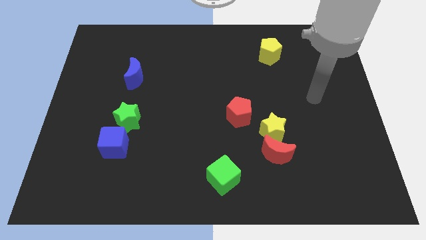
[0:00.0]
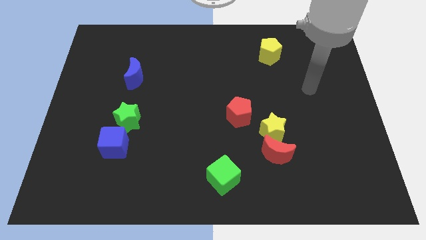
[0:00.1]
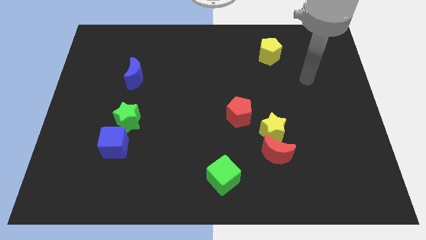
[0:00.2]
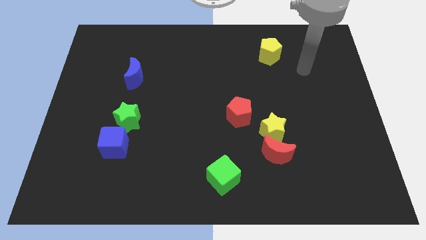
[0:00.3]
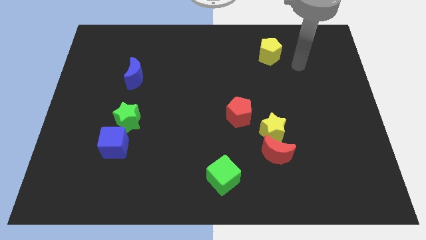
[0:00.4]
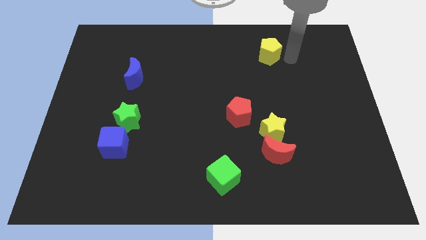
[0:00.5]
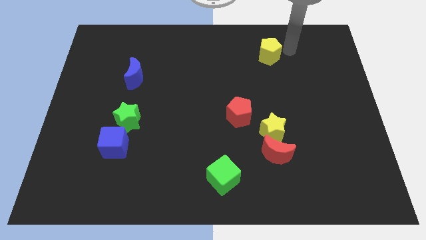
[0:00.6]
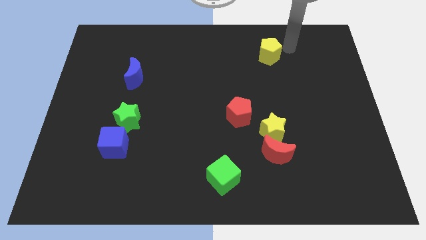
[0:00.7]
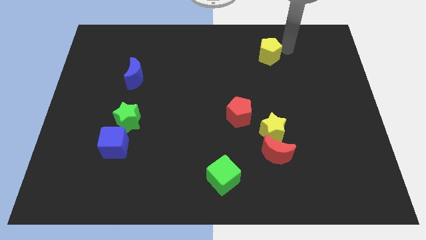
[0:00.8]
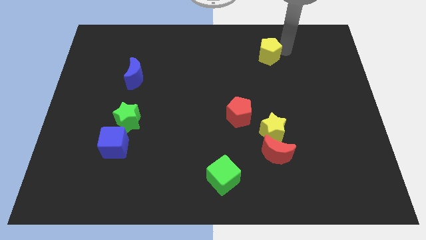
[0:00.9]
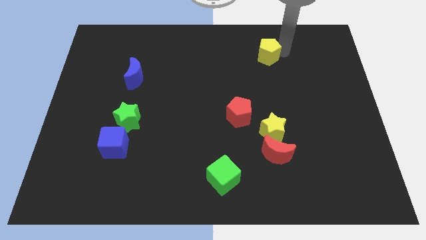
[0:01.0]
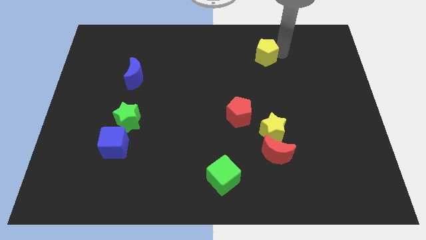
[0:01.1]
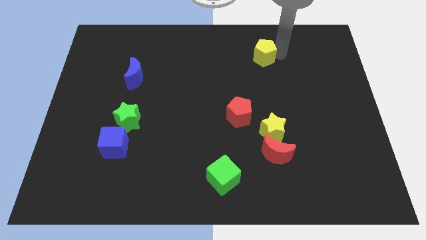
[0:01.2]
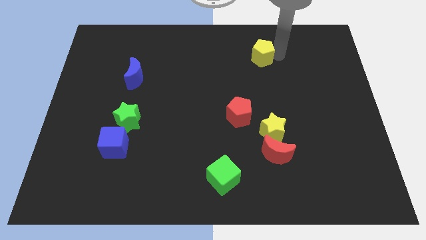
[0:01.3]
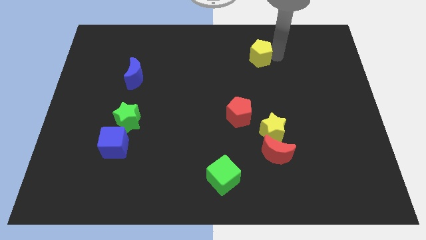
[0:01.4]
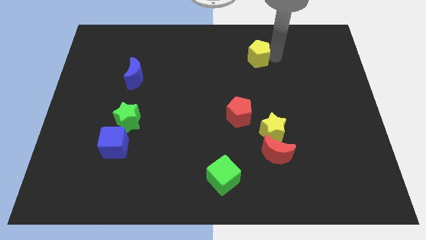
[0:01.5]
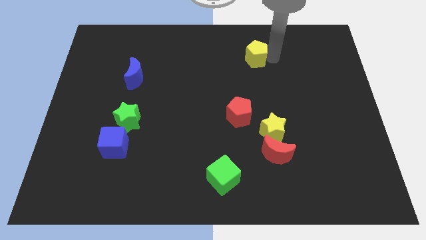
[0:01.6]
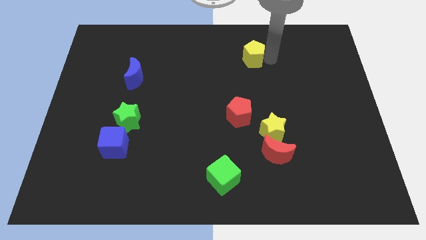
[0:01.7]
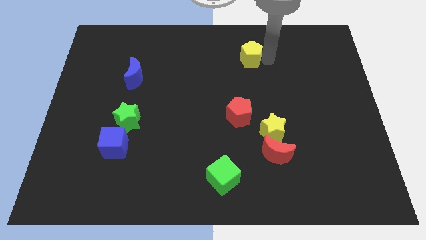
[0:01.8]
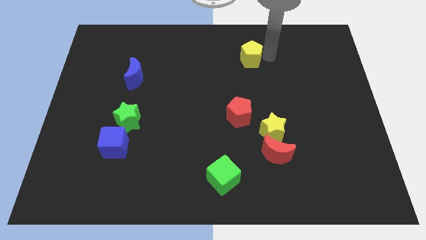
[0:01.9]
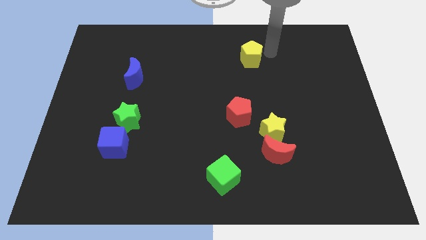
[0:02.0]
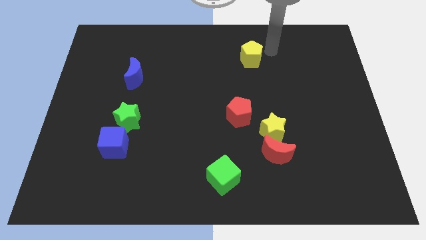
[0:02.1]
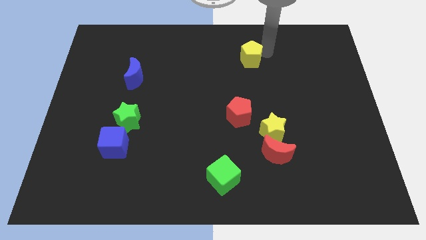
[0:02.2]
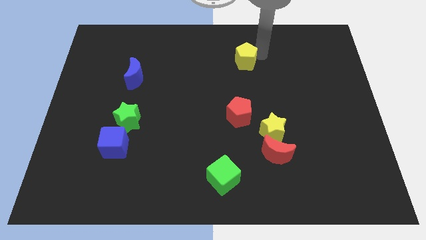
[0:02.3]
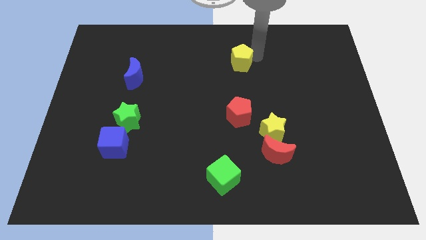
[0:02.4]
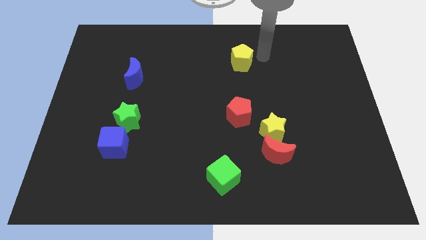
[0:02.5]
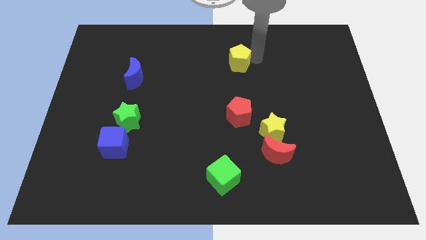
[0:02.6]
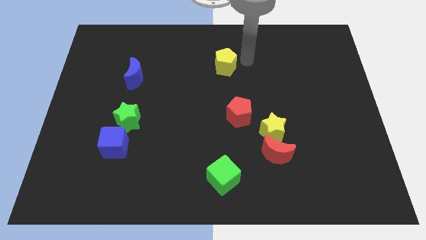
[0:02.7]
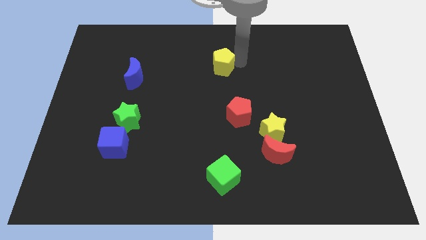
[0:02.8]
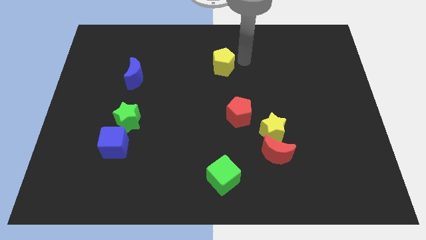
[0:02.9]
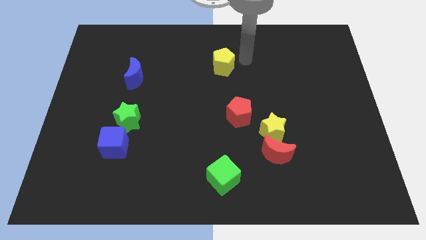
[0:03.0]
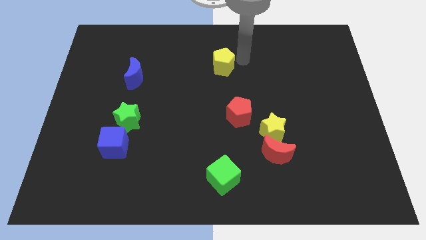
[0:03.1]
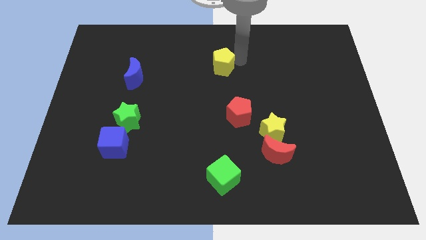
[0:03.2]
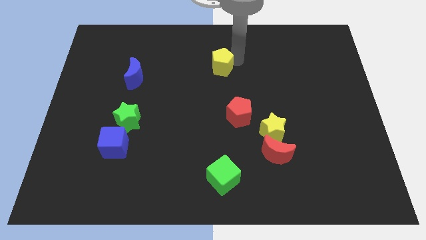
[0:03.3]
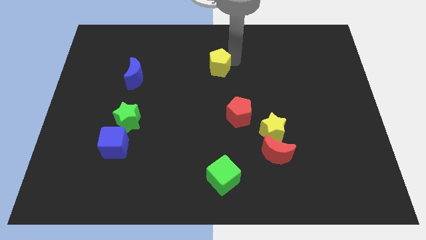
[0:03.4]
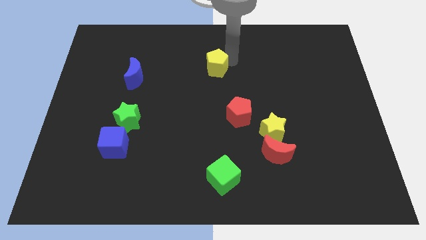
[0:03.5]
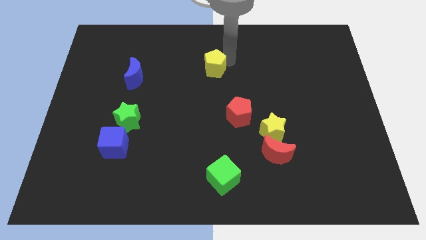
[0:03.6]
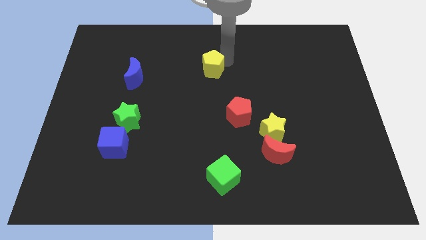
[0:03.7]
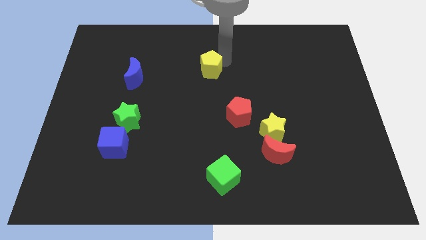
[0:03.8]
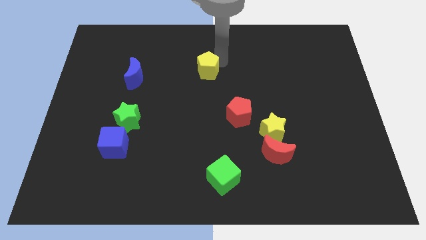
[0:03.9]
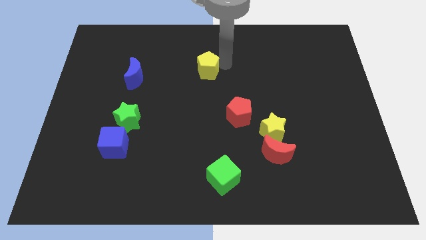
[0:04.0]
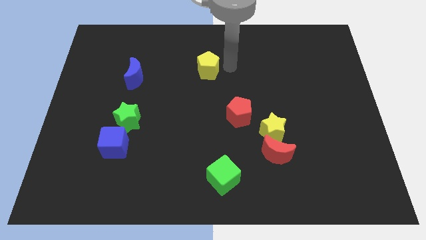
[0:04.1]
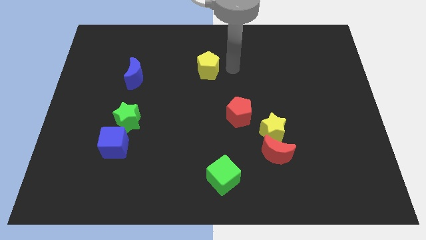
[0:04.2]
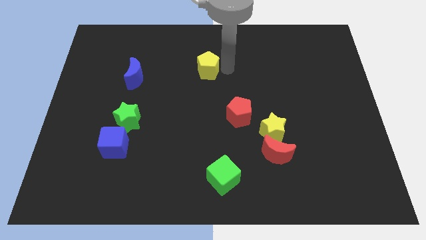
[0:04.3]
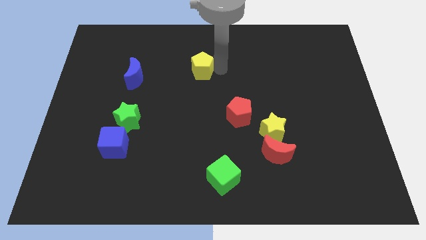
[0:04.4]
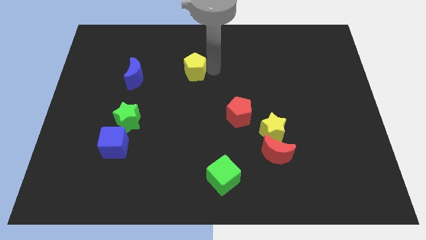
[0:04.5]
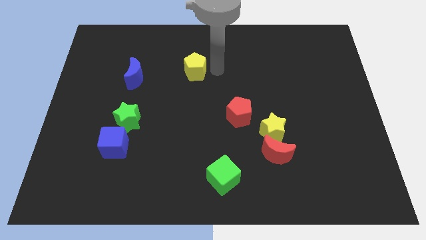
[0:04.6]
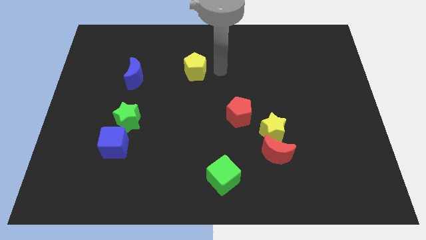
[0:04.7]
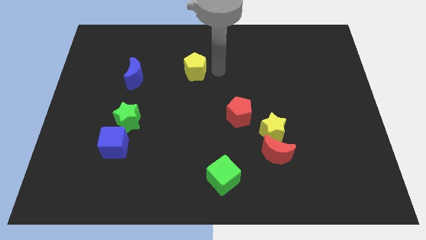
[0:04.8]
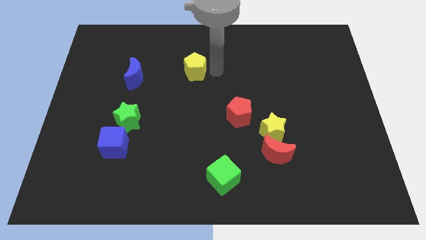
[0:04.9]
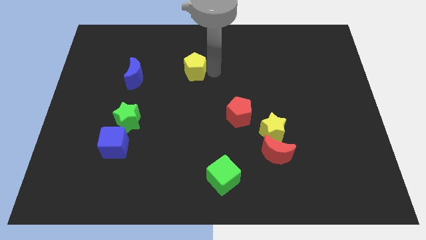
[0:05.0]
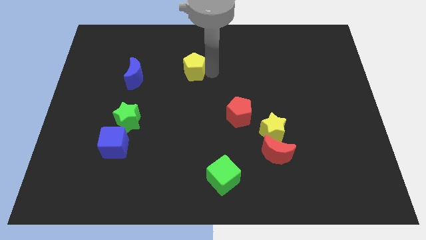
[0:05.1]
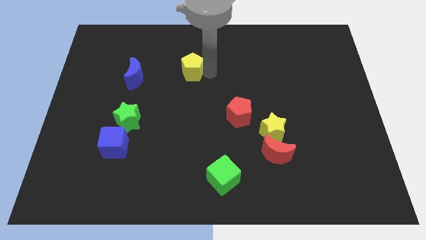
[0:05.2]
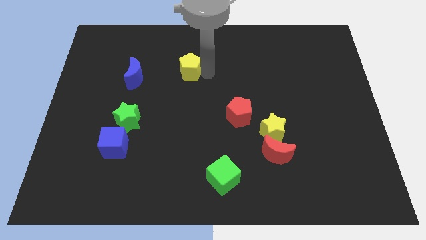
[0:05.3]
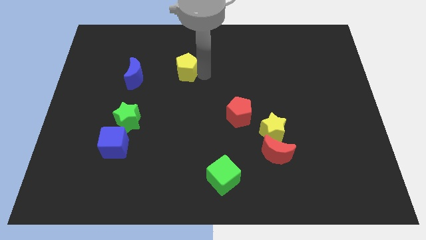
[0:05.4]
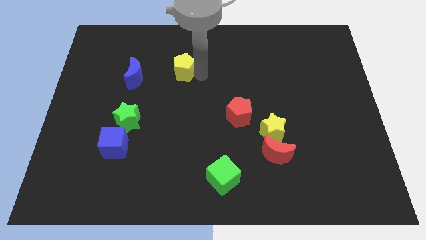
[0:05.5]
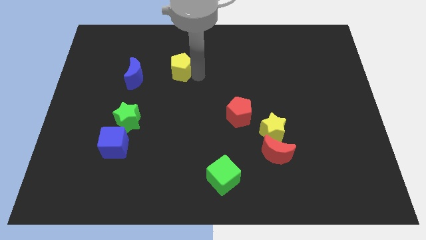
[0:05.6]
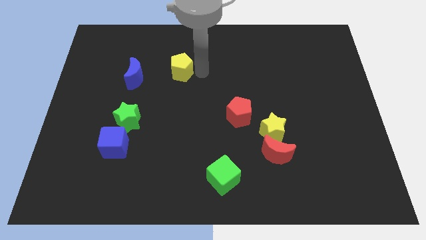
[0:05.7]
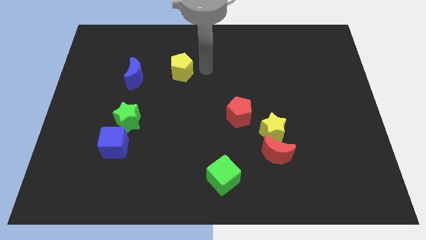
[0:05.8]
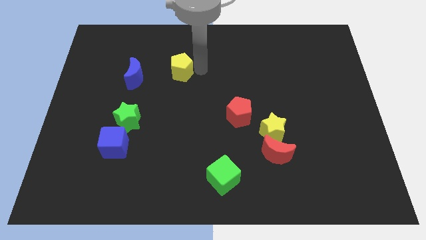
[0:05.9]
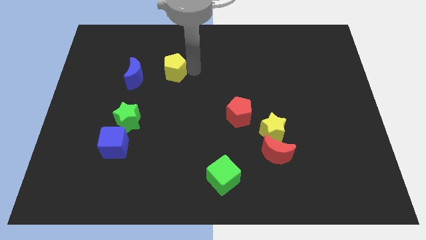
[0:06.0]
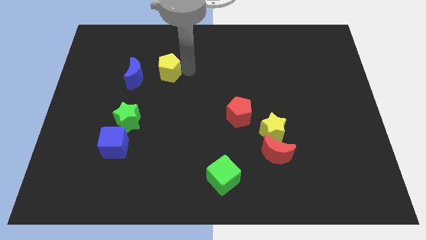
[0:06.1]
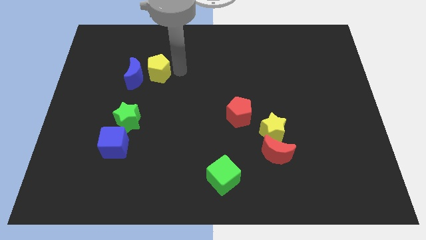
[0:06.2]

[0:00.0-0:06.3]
put the yellow pentagon close to the blue moon

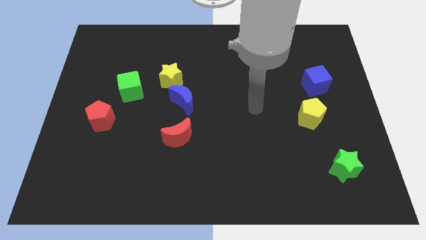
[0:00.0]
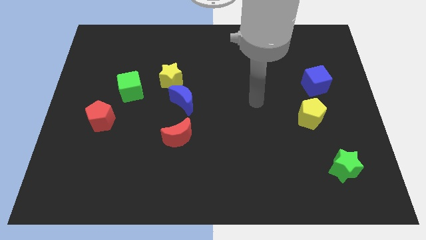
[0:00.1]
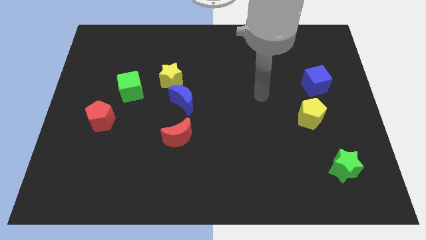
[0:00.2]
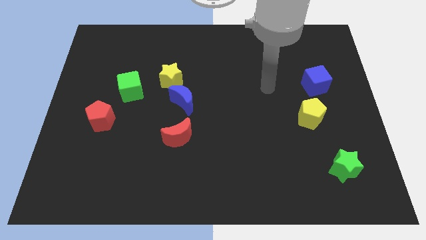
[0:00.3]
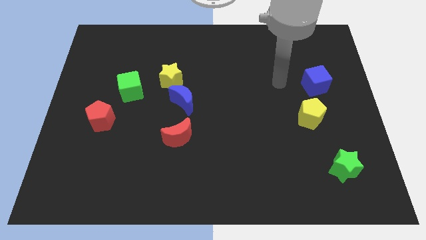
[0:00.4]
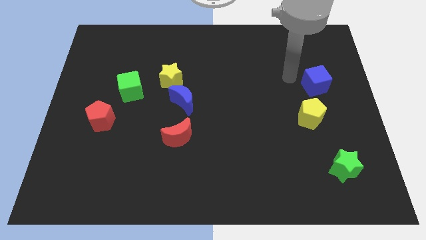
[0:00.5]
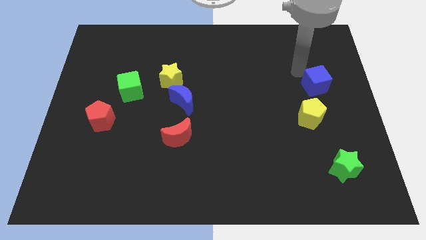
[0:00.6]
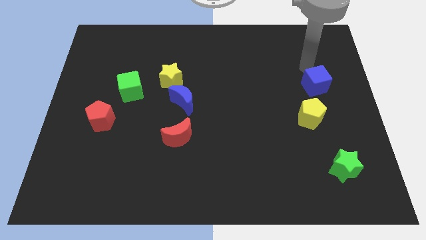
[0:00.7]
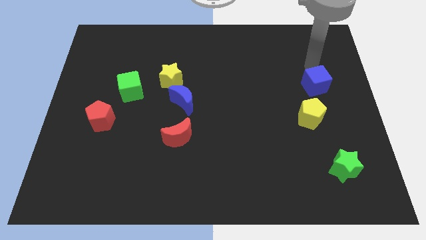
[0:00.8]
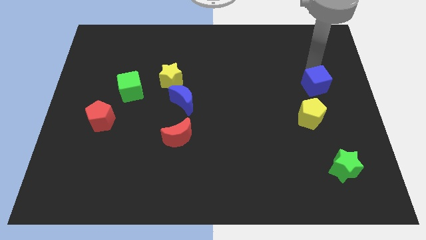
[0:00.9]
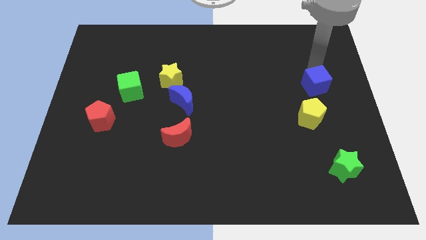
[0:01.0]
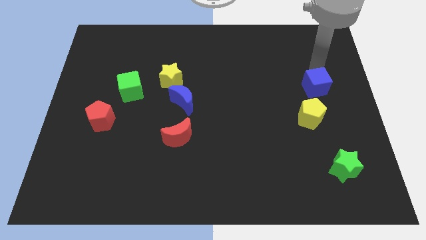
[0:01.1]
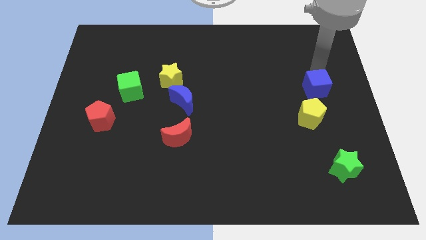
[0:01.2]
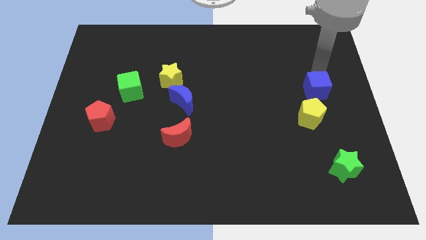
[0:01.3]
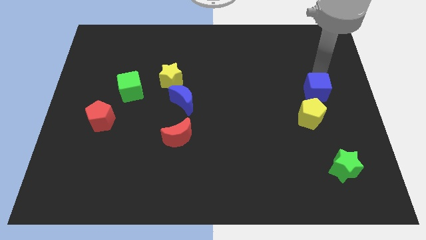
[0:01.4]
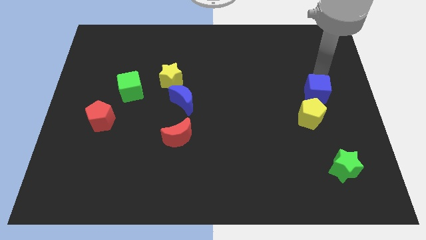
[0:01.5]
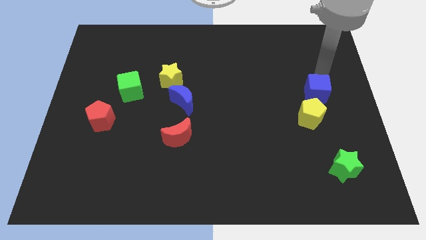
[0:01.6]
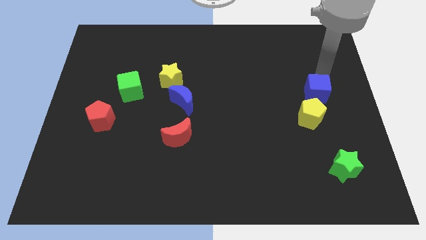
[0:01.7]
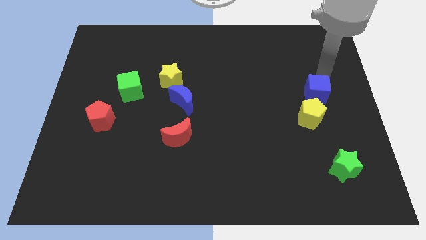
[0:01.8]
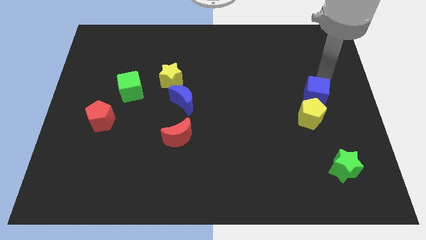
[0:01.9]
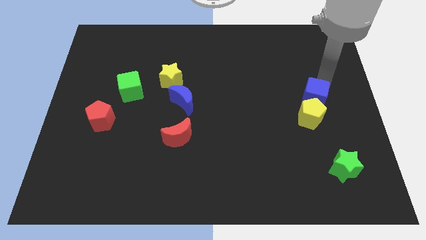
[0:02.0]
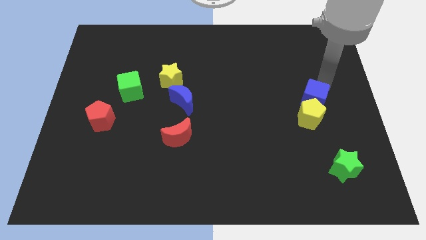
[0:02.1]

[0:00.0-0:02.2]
push the blue cube towards the yellow pentagon
